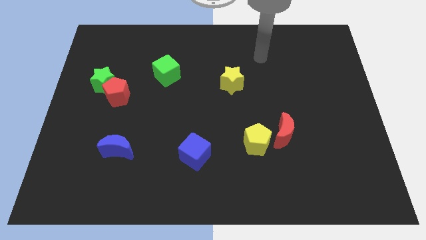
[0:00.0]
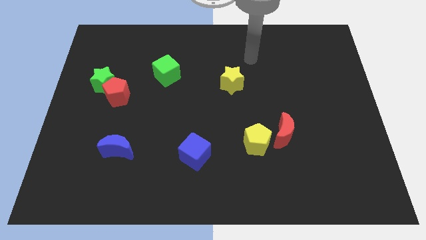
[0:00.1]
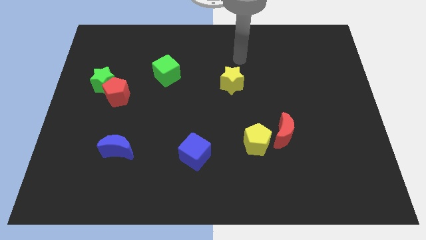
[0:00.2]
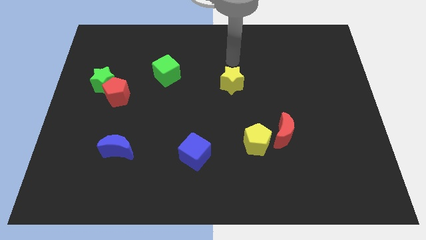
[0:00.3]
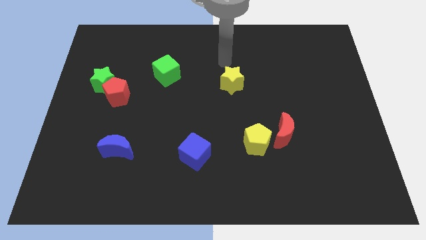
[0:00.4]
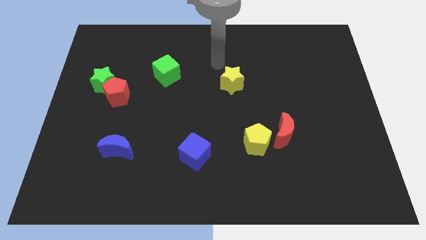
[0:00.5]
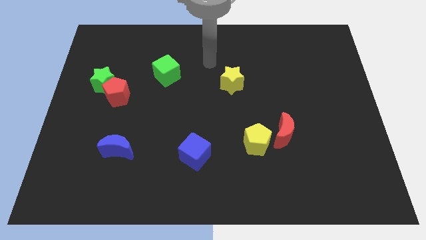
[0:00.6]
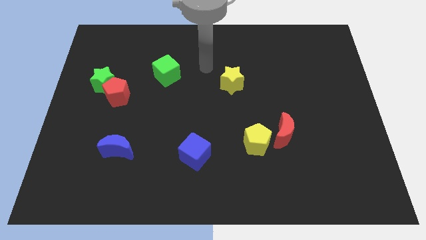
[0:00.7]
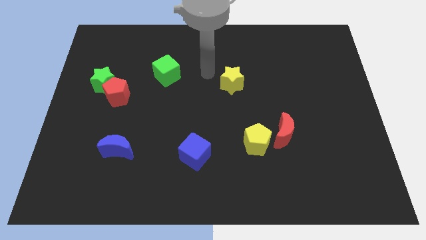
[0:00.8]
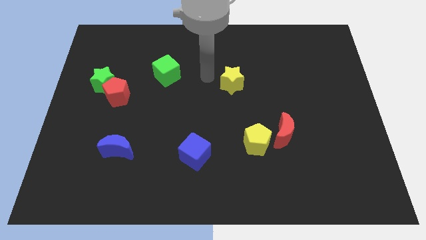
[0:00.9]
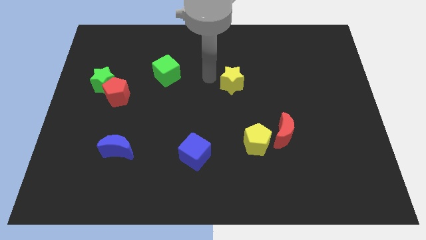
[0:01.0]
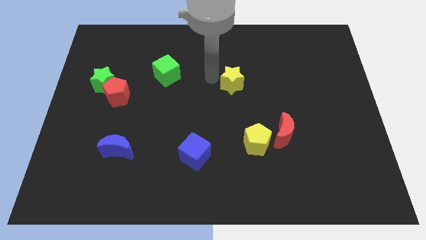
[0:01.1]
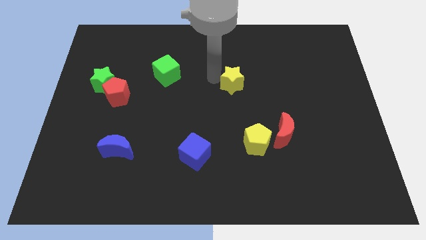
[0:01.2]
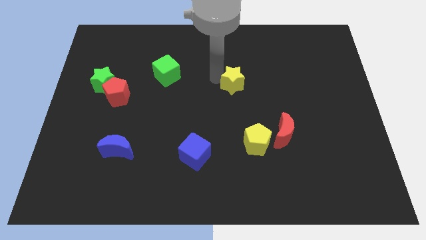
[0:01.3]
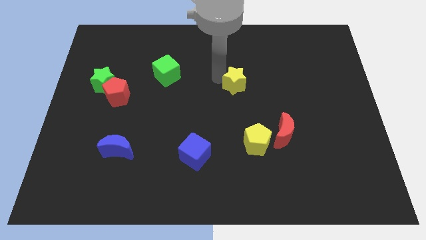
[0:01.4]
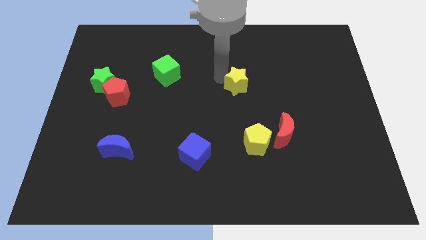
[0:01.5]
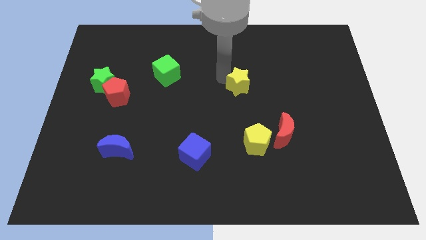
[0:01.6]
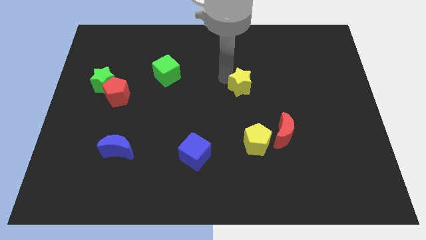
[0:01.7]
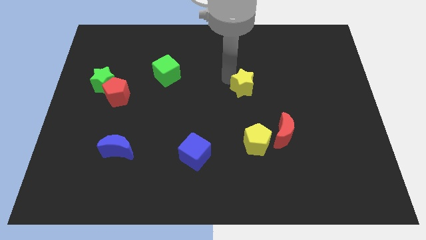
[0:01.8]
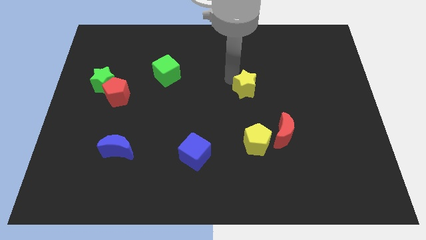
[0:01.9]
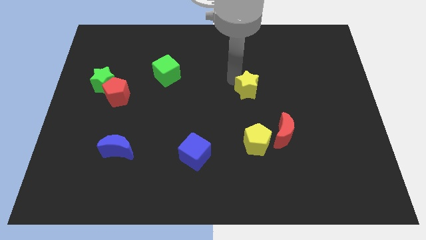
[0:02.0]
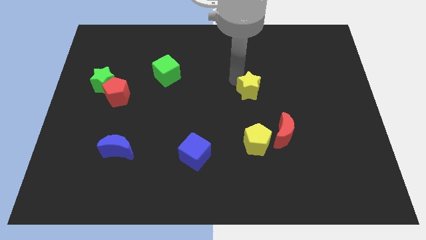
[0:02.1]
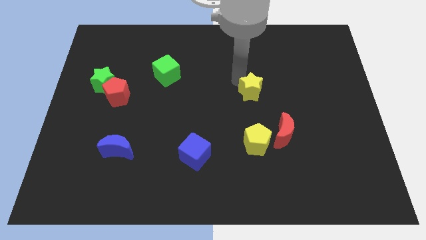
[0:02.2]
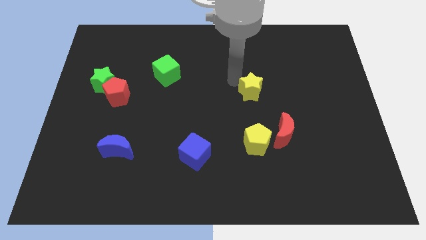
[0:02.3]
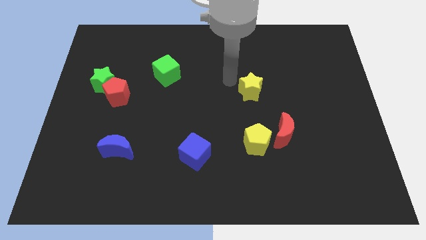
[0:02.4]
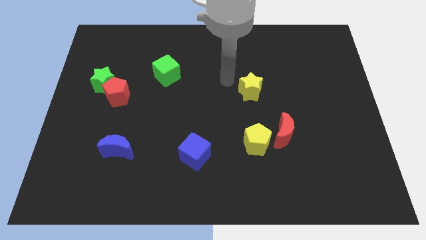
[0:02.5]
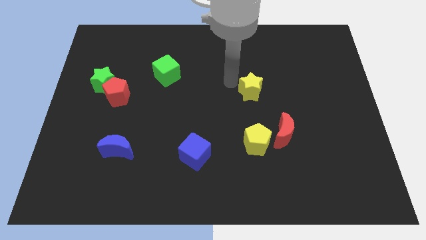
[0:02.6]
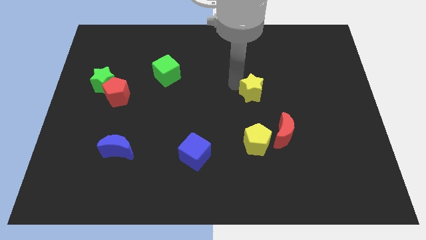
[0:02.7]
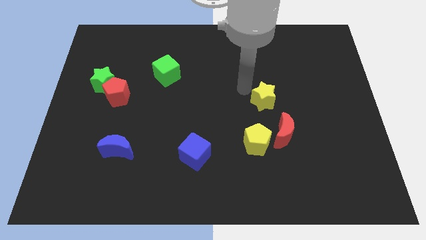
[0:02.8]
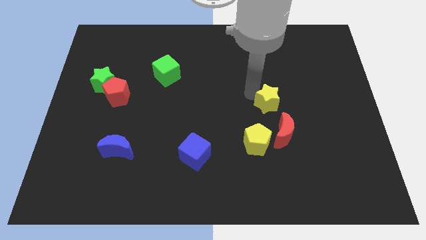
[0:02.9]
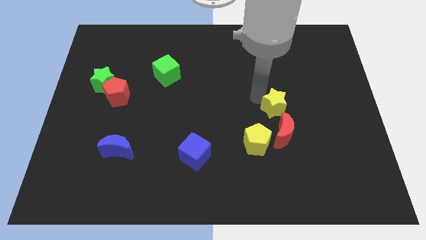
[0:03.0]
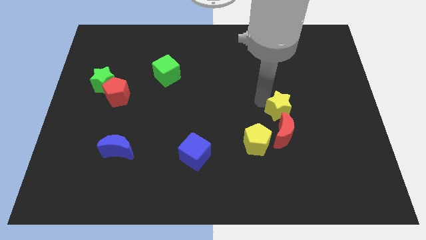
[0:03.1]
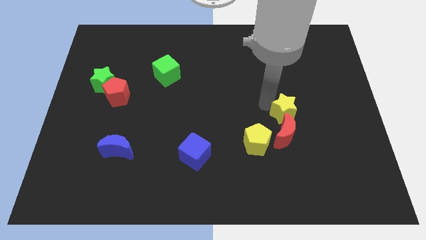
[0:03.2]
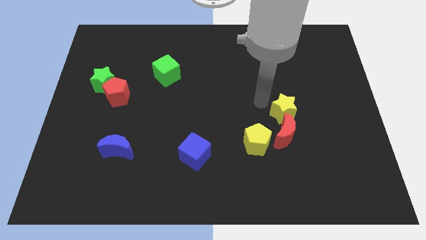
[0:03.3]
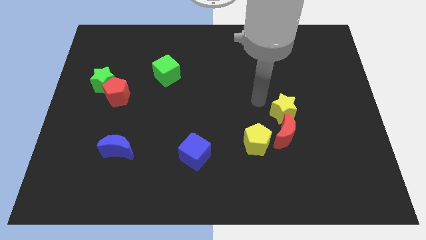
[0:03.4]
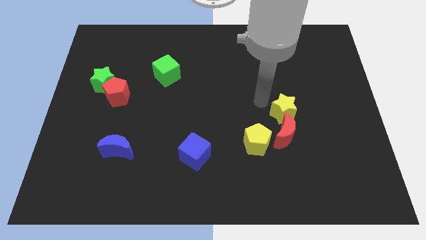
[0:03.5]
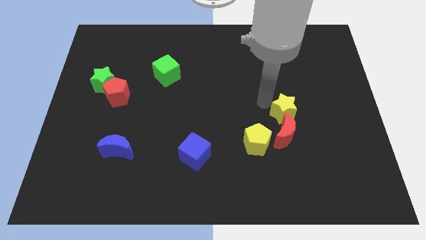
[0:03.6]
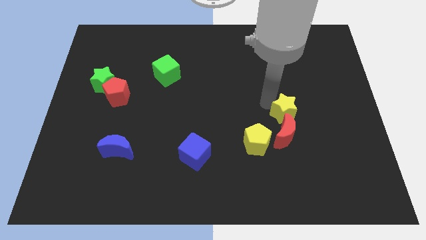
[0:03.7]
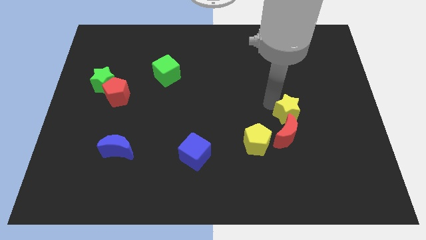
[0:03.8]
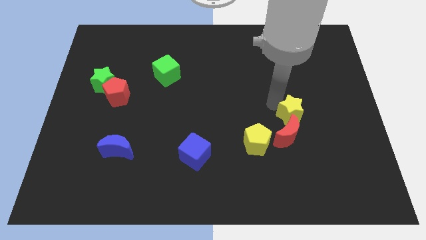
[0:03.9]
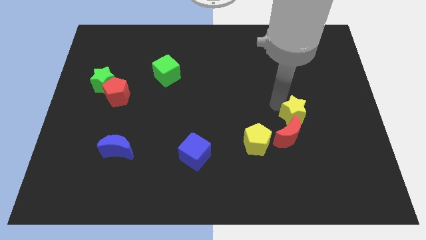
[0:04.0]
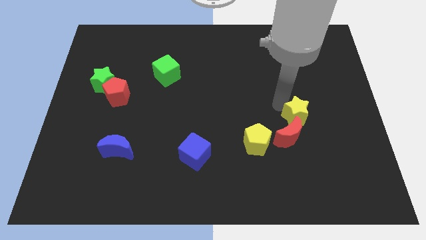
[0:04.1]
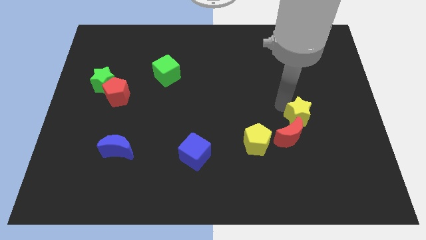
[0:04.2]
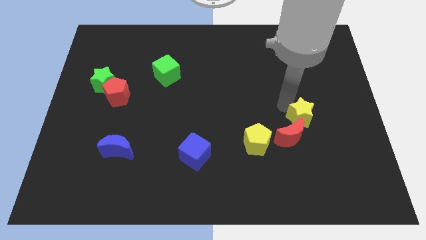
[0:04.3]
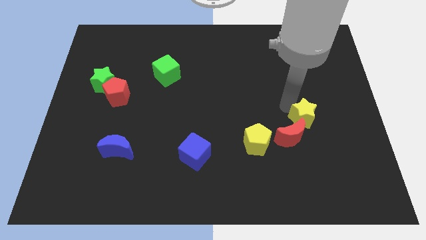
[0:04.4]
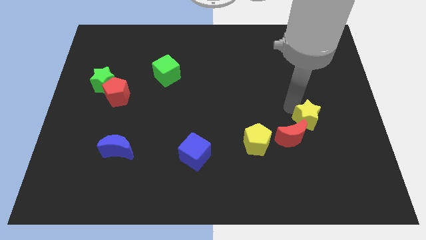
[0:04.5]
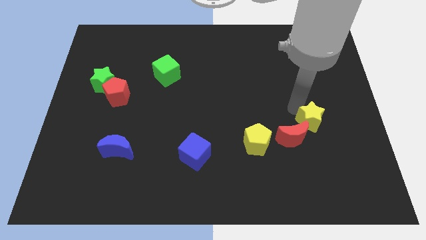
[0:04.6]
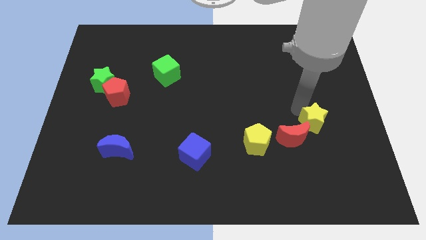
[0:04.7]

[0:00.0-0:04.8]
move the yellow star down and then to the right

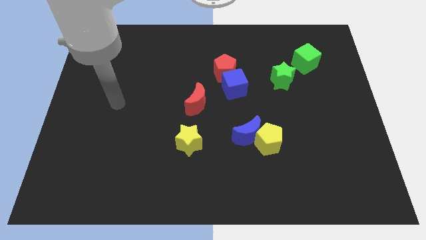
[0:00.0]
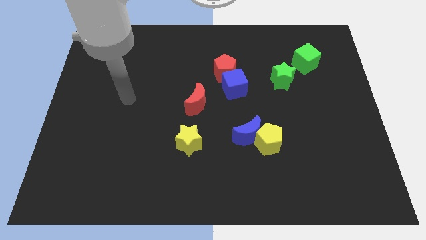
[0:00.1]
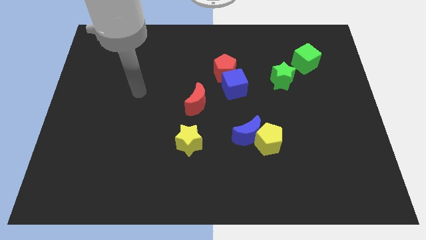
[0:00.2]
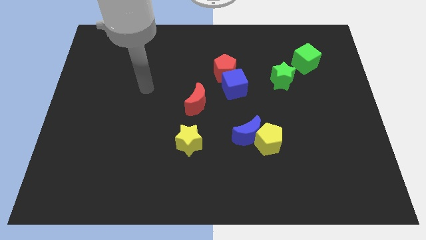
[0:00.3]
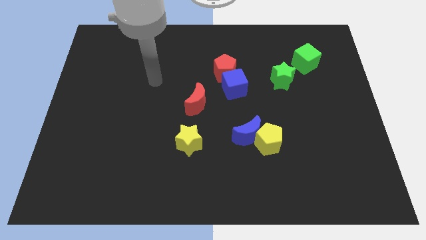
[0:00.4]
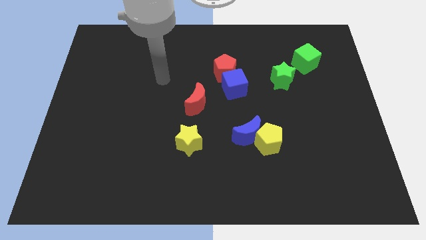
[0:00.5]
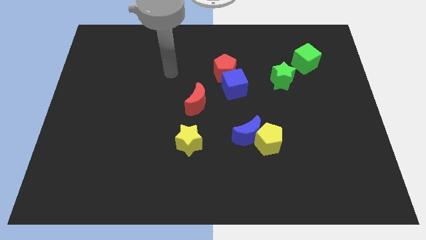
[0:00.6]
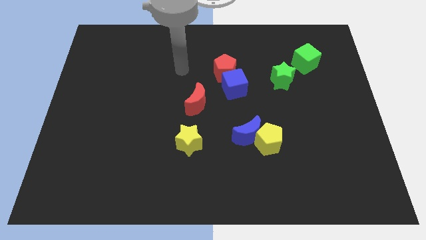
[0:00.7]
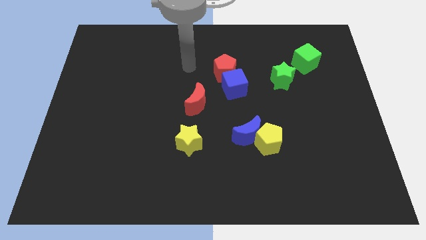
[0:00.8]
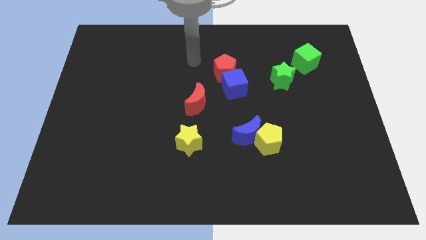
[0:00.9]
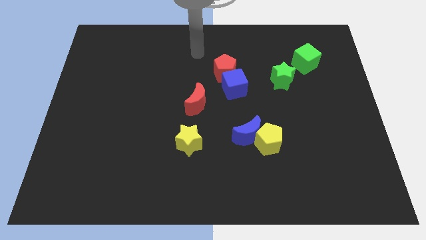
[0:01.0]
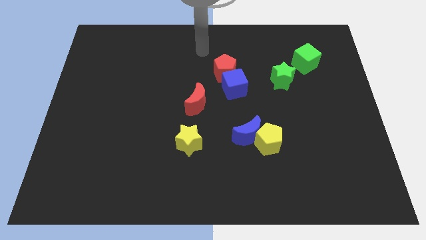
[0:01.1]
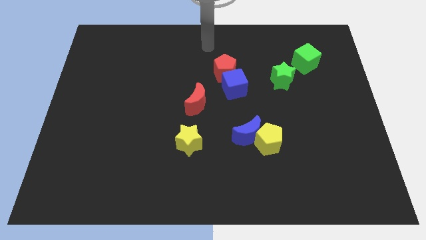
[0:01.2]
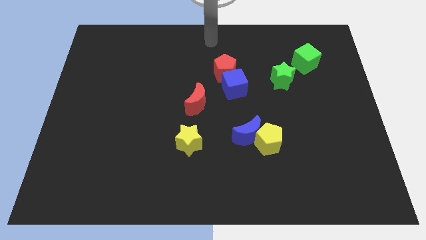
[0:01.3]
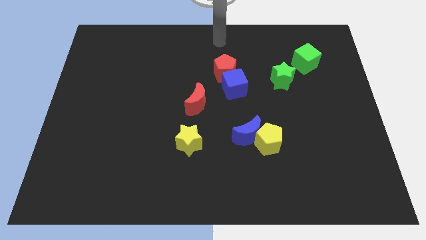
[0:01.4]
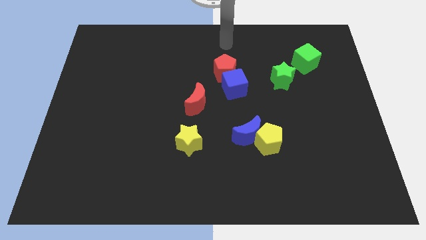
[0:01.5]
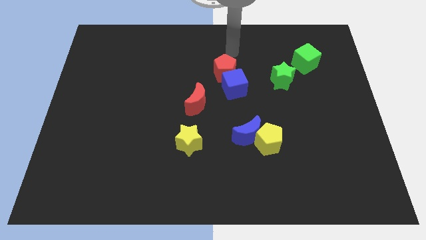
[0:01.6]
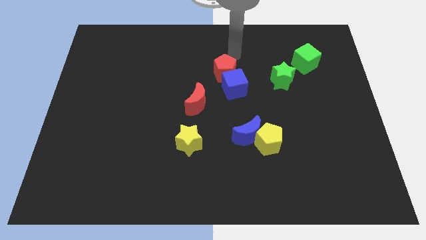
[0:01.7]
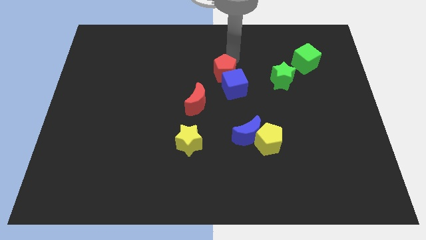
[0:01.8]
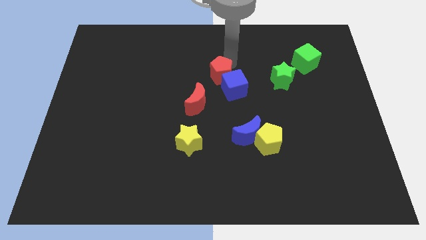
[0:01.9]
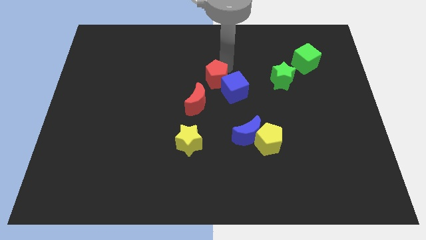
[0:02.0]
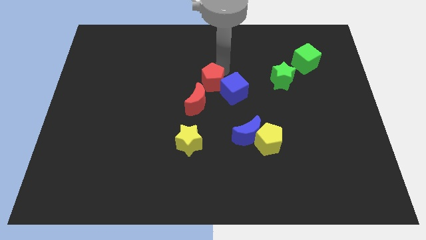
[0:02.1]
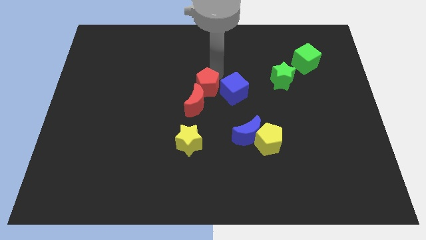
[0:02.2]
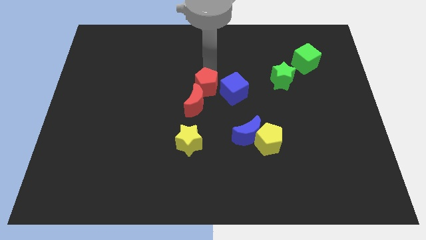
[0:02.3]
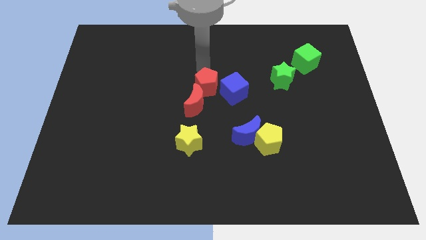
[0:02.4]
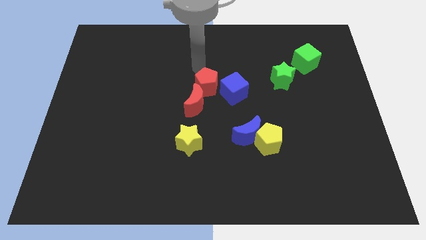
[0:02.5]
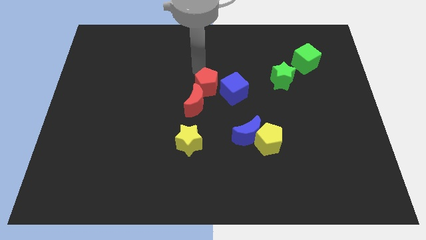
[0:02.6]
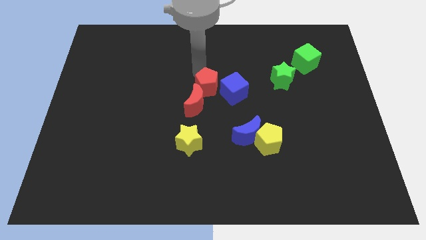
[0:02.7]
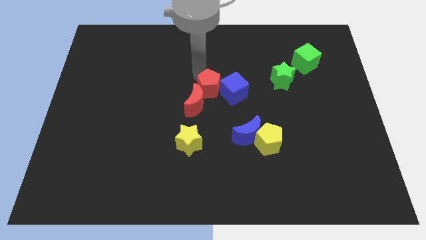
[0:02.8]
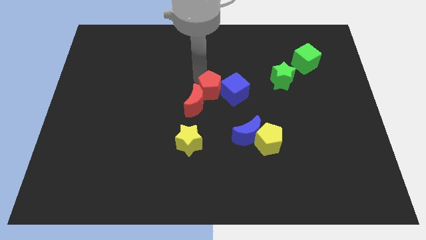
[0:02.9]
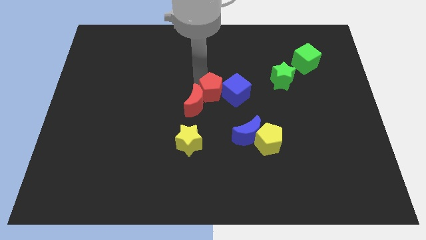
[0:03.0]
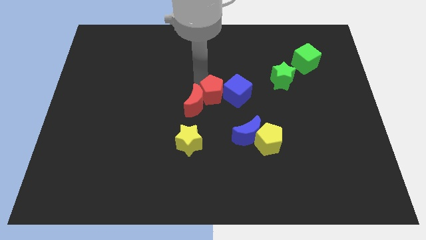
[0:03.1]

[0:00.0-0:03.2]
slide the red pentagon downwards a little
